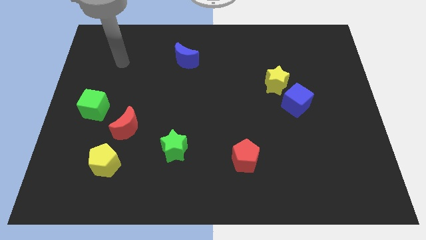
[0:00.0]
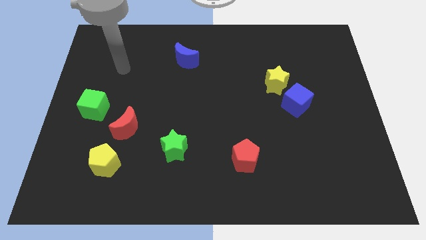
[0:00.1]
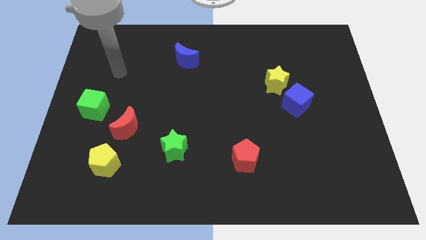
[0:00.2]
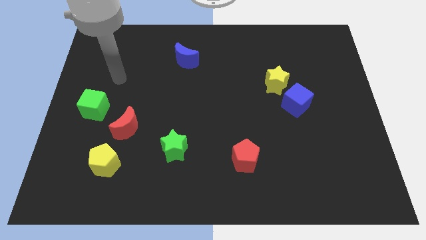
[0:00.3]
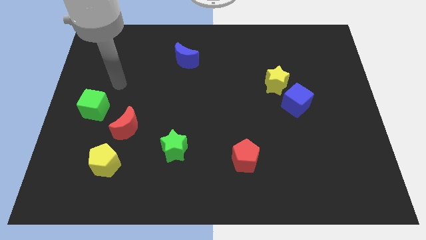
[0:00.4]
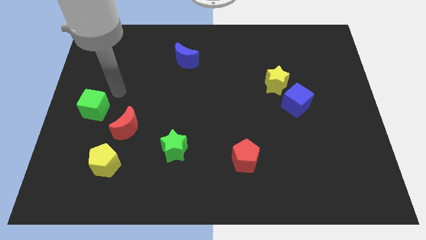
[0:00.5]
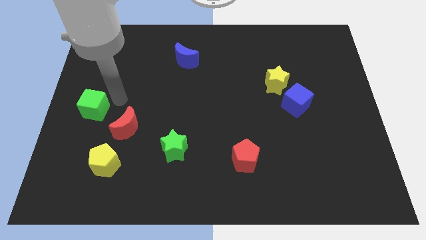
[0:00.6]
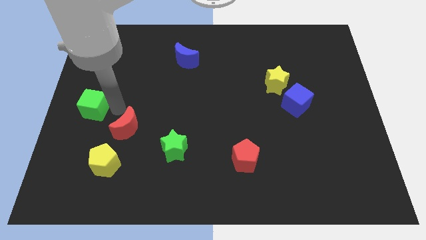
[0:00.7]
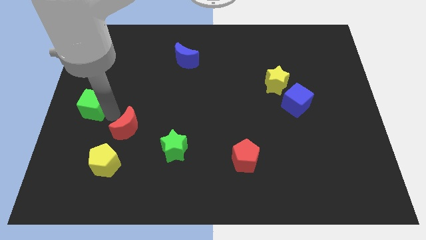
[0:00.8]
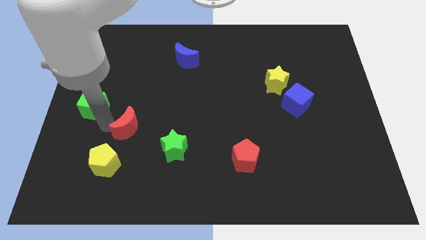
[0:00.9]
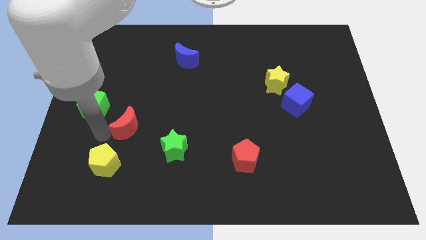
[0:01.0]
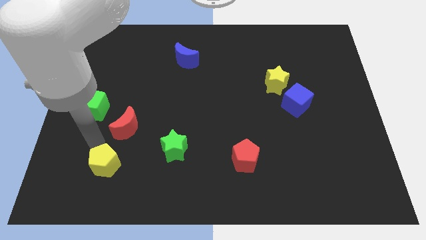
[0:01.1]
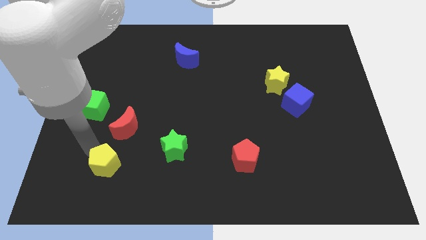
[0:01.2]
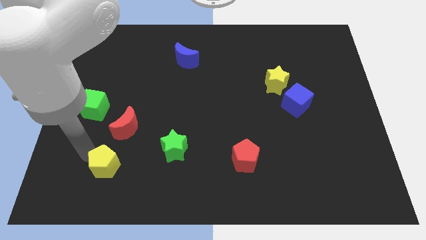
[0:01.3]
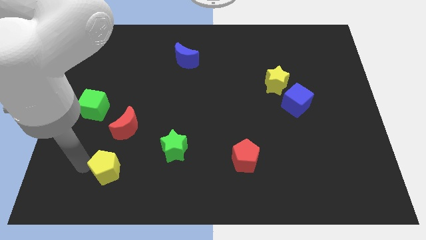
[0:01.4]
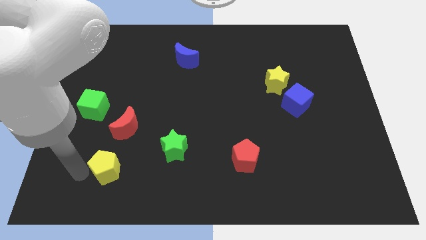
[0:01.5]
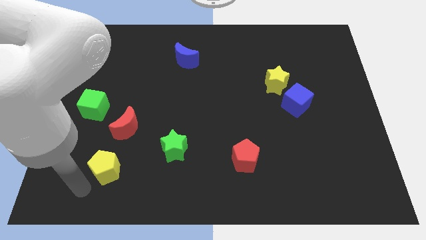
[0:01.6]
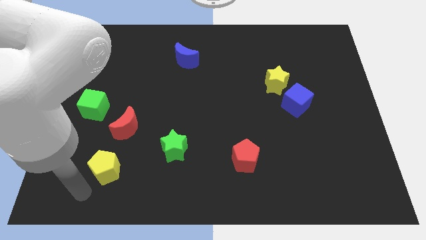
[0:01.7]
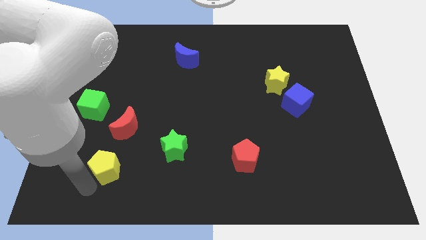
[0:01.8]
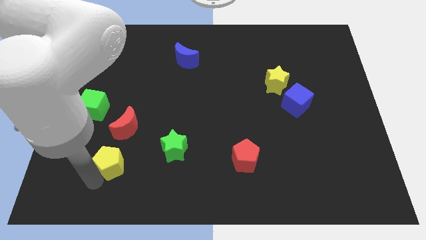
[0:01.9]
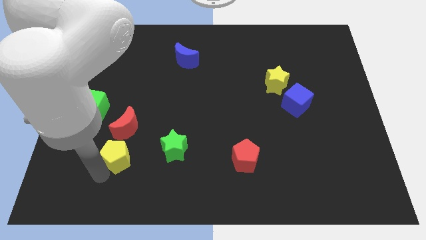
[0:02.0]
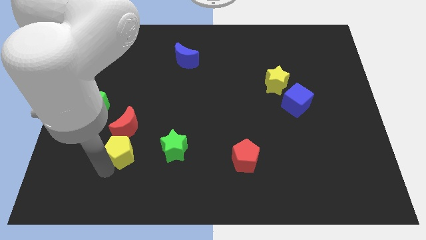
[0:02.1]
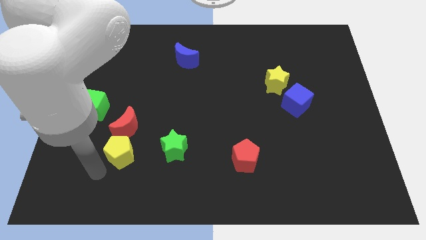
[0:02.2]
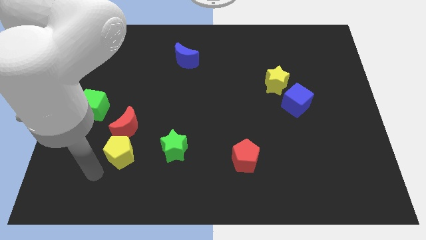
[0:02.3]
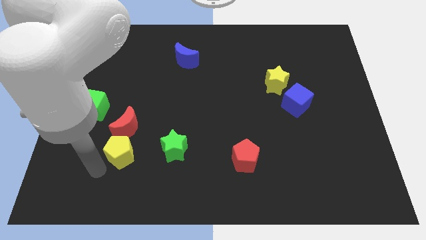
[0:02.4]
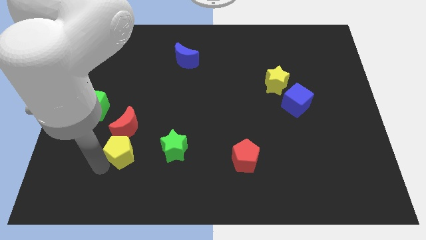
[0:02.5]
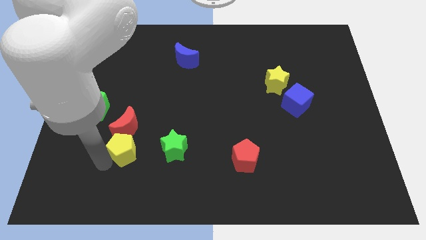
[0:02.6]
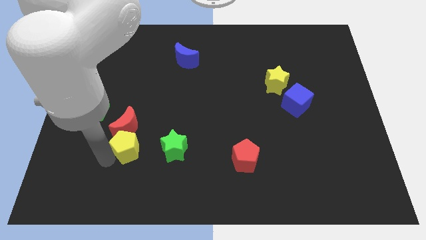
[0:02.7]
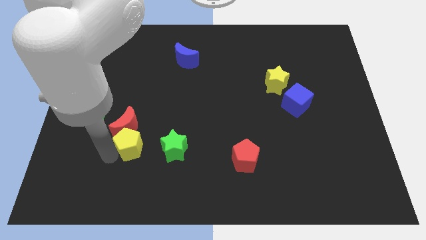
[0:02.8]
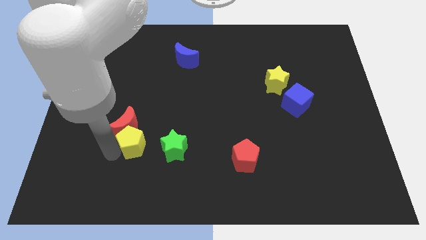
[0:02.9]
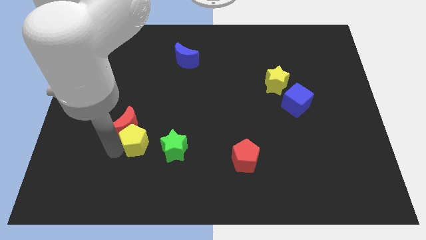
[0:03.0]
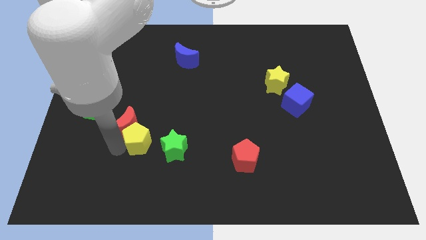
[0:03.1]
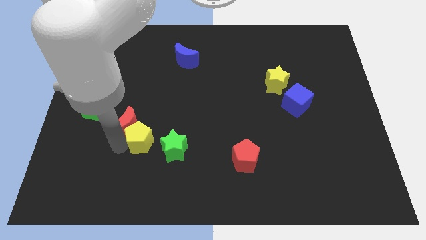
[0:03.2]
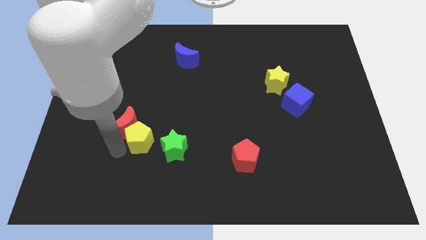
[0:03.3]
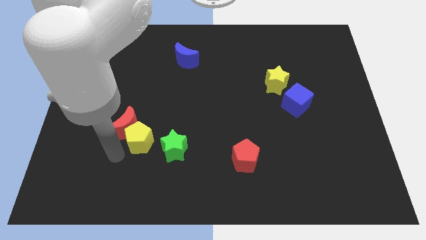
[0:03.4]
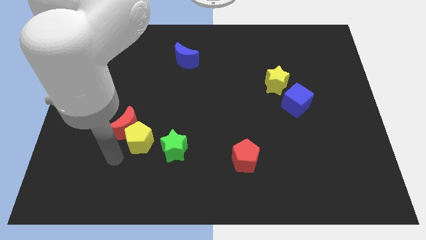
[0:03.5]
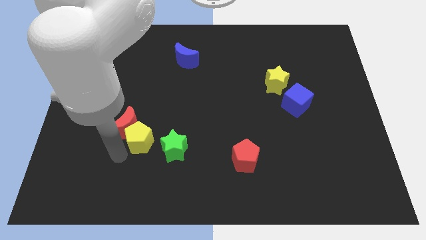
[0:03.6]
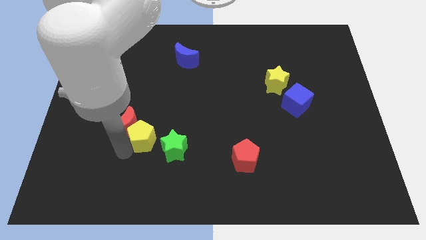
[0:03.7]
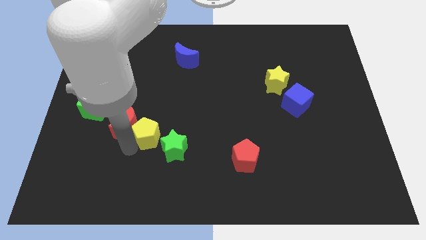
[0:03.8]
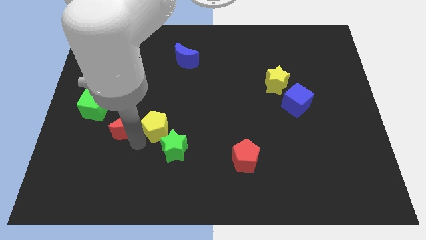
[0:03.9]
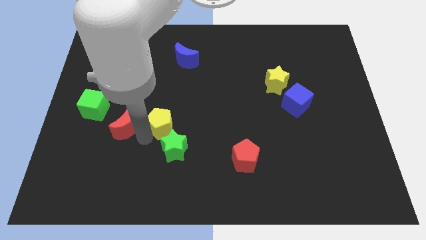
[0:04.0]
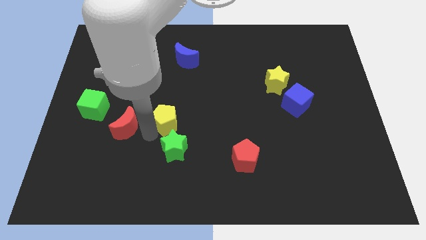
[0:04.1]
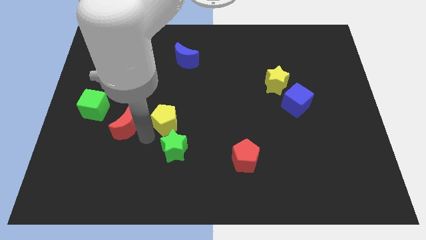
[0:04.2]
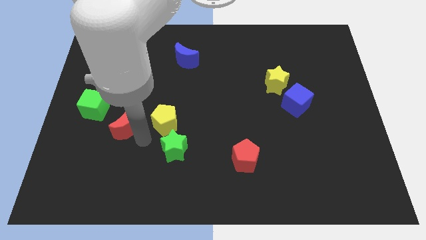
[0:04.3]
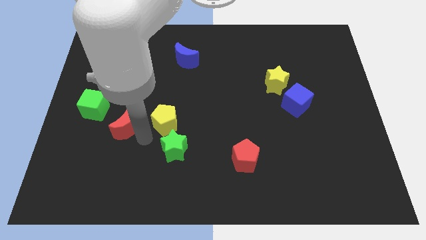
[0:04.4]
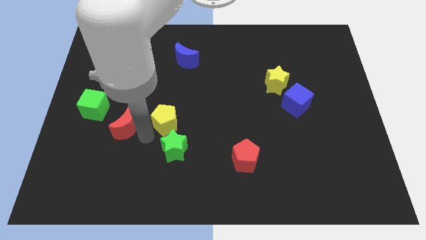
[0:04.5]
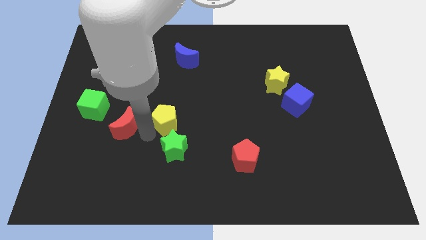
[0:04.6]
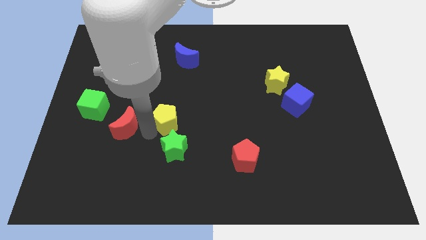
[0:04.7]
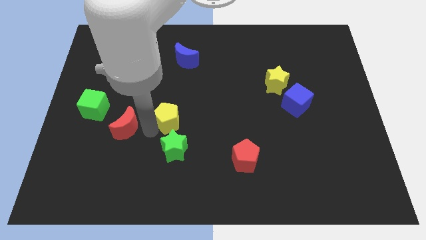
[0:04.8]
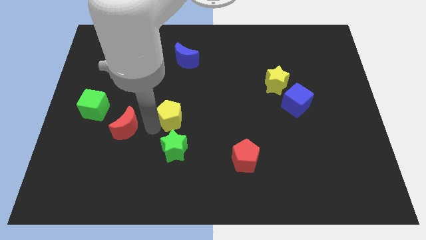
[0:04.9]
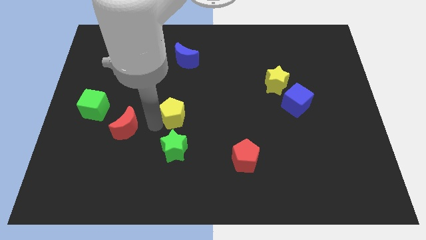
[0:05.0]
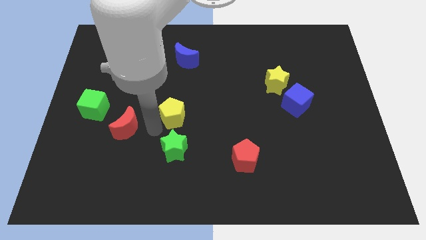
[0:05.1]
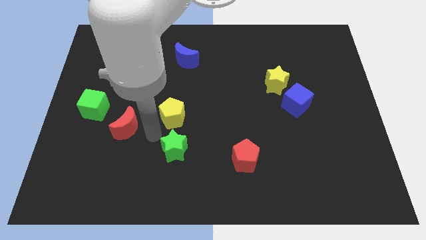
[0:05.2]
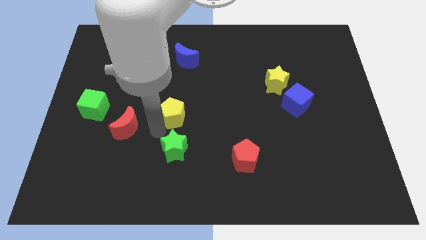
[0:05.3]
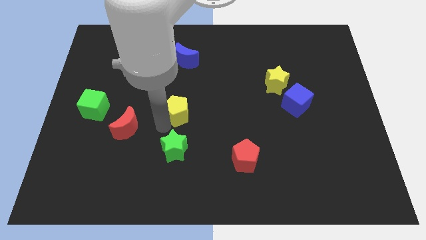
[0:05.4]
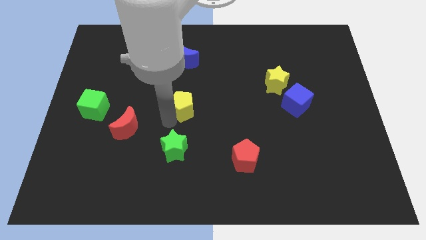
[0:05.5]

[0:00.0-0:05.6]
move the yellow pentagon up and right diagonally

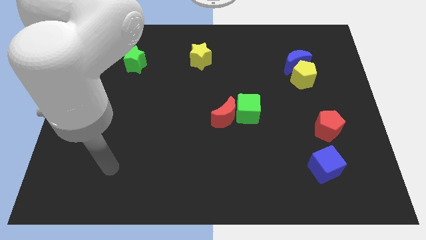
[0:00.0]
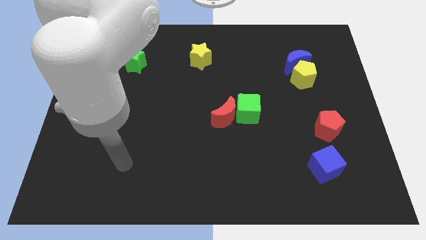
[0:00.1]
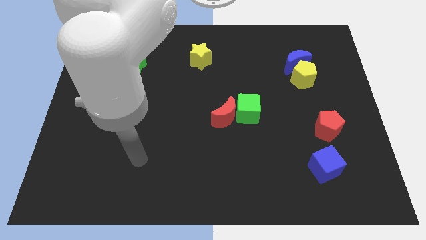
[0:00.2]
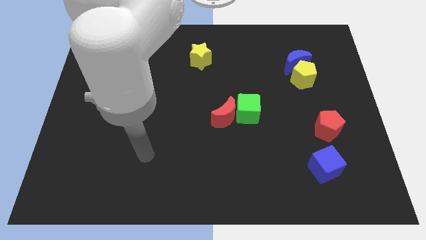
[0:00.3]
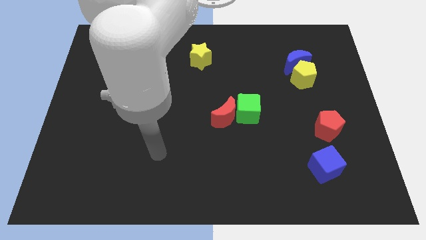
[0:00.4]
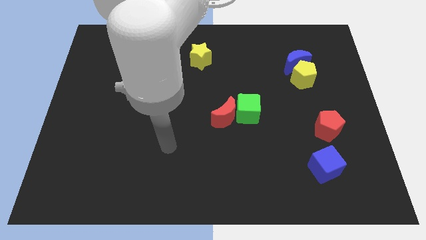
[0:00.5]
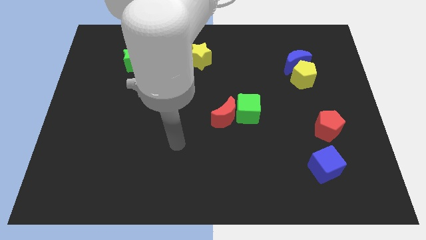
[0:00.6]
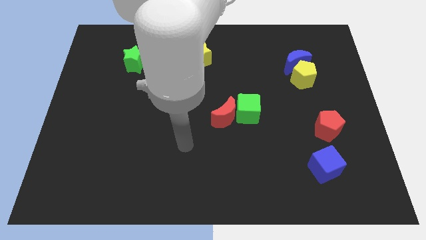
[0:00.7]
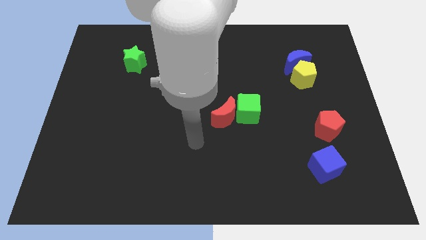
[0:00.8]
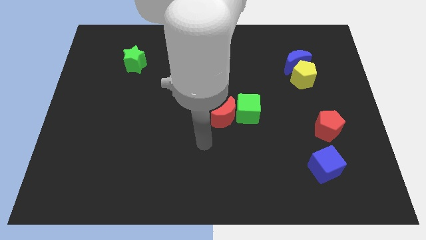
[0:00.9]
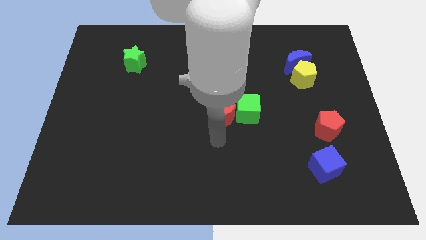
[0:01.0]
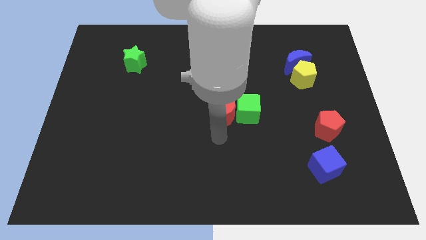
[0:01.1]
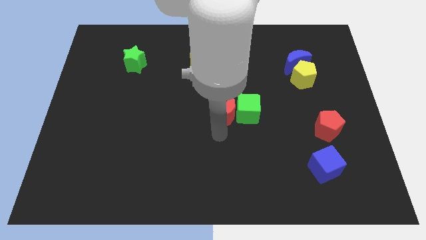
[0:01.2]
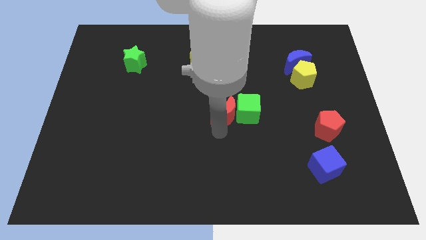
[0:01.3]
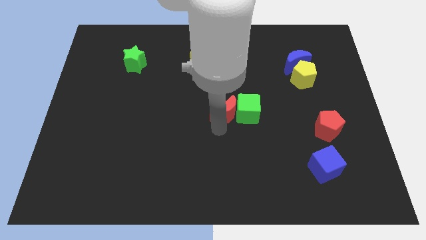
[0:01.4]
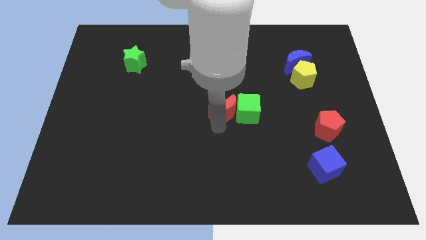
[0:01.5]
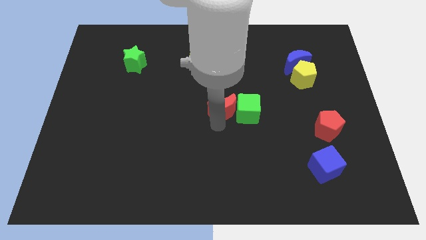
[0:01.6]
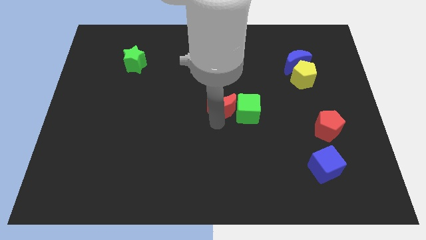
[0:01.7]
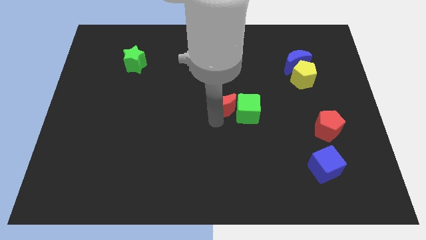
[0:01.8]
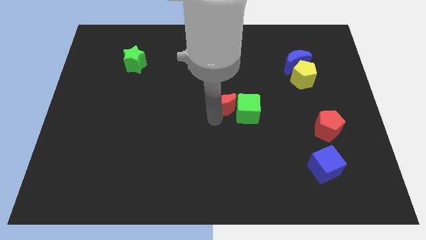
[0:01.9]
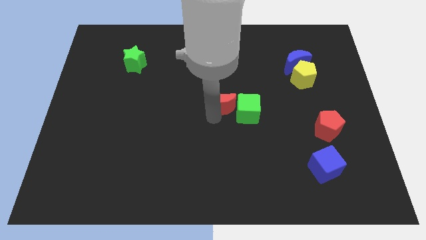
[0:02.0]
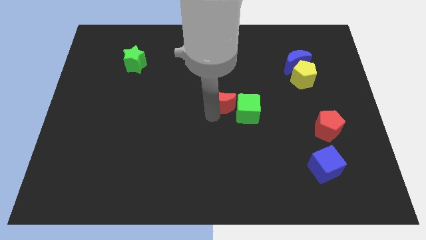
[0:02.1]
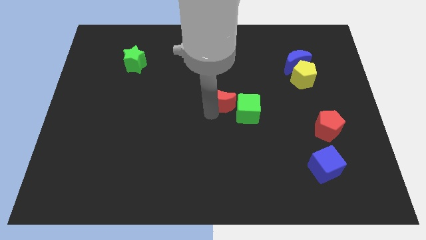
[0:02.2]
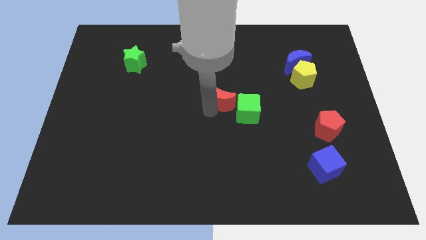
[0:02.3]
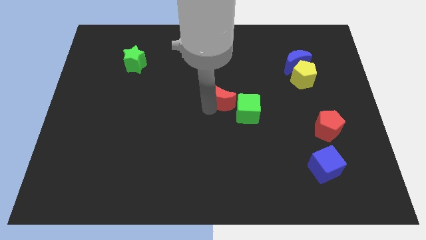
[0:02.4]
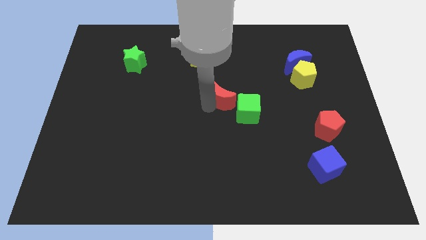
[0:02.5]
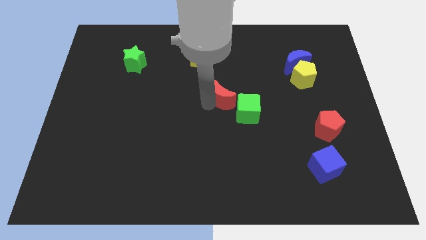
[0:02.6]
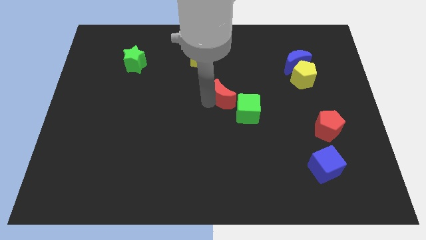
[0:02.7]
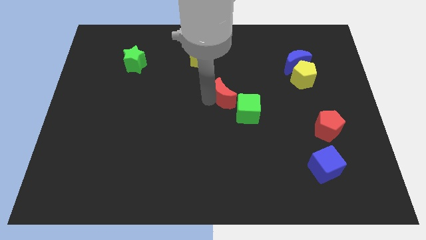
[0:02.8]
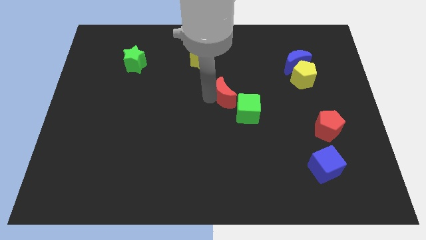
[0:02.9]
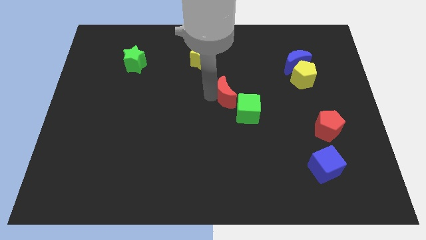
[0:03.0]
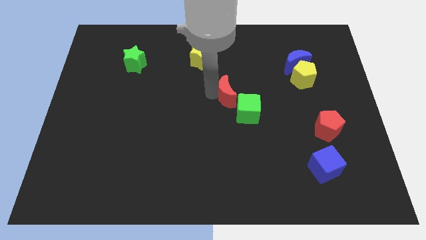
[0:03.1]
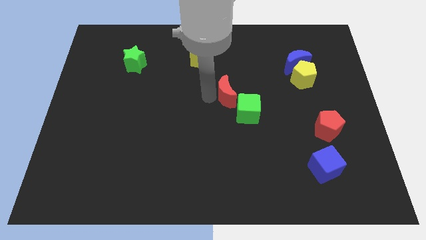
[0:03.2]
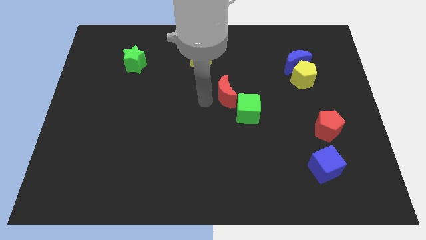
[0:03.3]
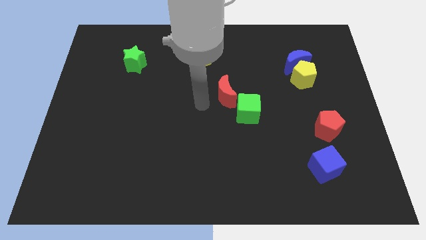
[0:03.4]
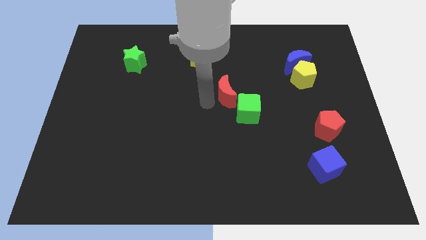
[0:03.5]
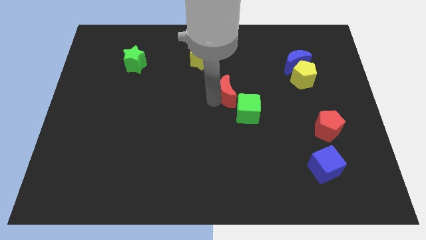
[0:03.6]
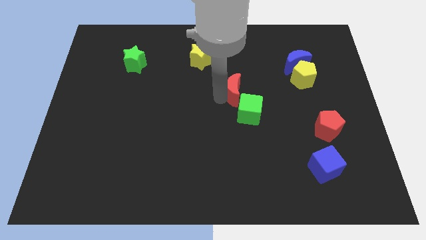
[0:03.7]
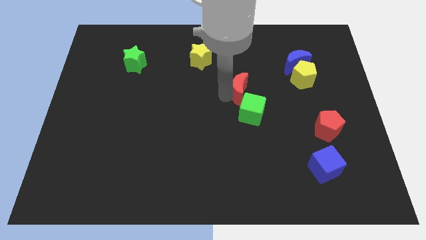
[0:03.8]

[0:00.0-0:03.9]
push the red moon upwards and right diagonally a little
